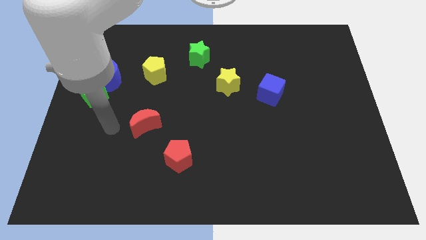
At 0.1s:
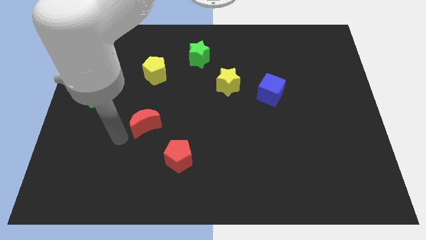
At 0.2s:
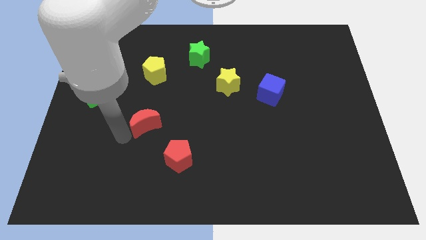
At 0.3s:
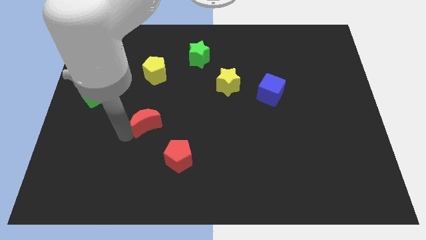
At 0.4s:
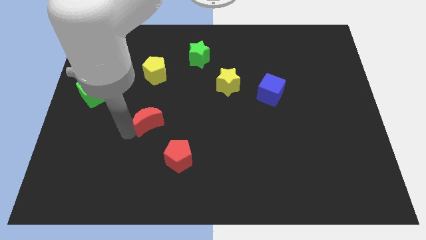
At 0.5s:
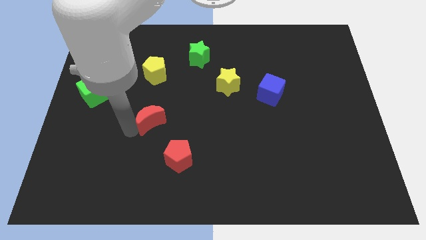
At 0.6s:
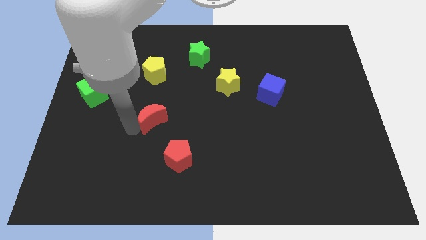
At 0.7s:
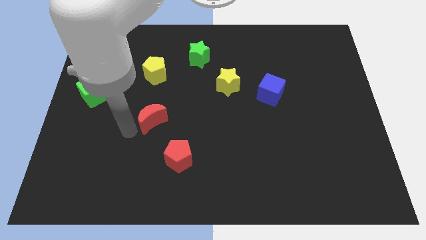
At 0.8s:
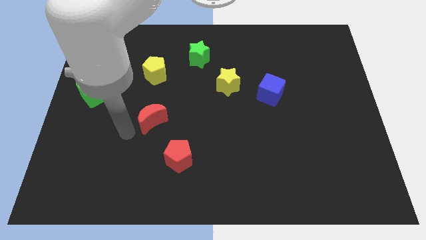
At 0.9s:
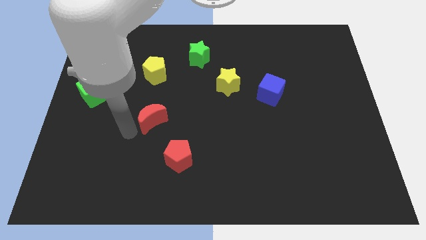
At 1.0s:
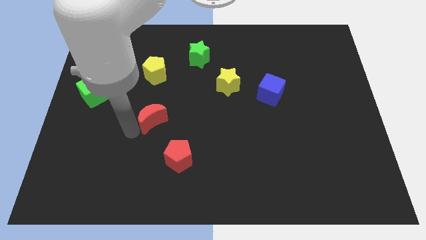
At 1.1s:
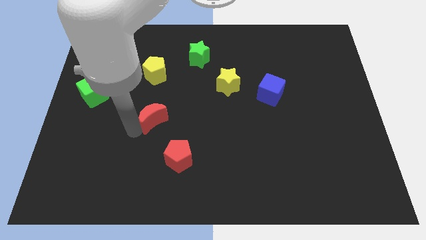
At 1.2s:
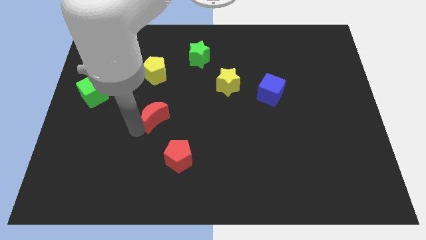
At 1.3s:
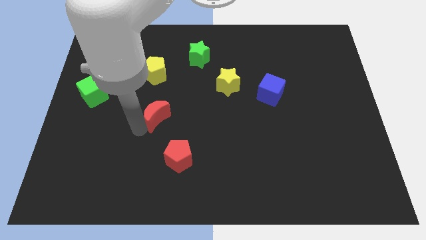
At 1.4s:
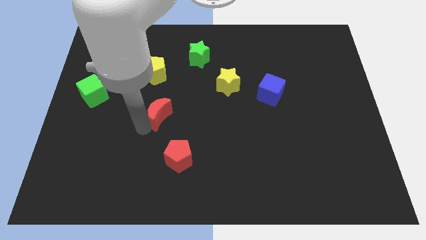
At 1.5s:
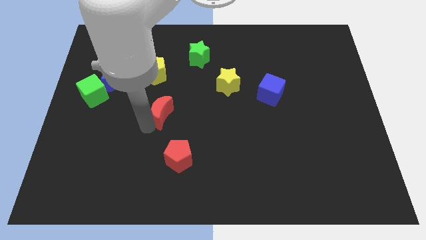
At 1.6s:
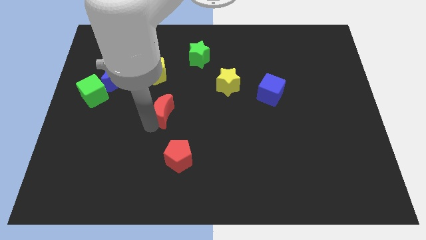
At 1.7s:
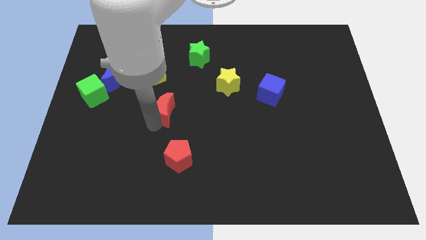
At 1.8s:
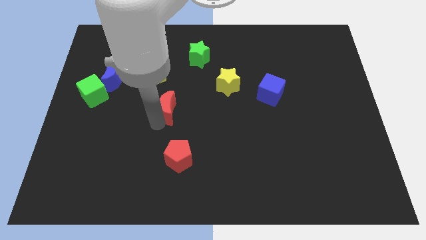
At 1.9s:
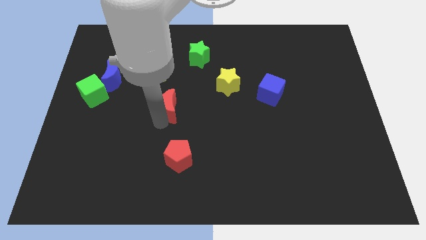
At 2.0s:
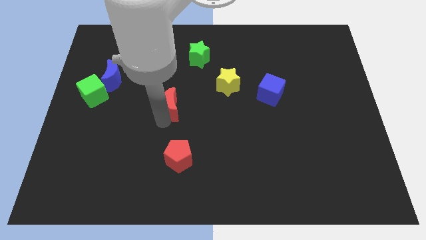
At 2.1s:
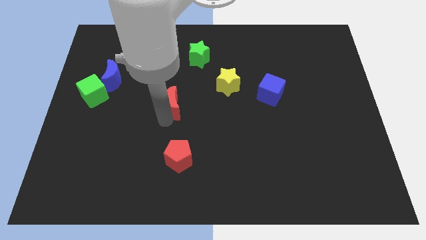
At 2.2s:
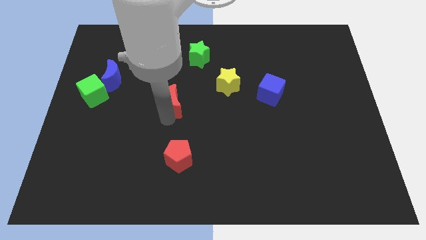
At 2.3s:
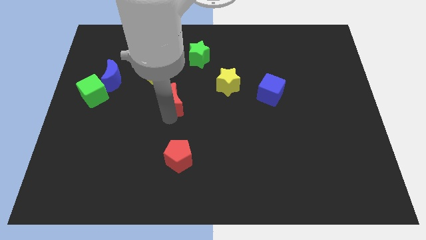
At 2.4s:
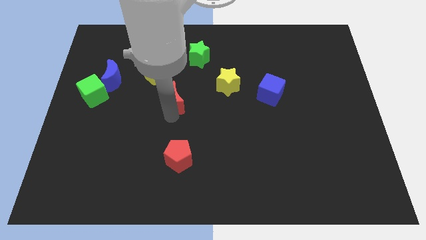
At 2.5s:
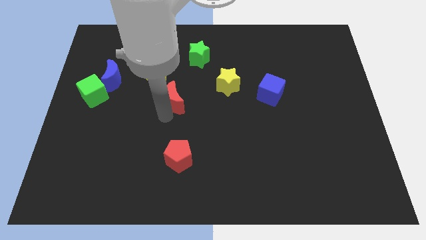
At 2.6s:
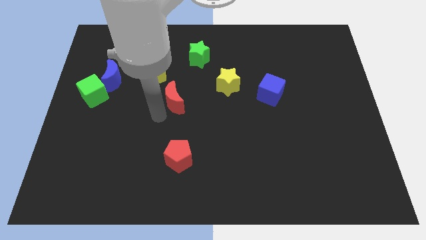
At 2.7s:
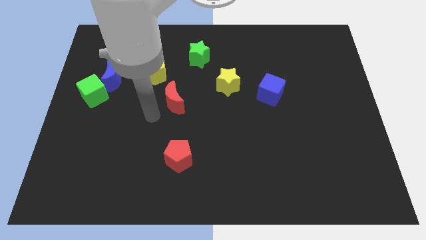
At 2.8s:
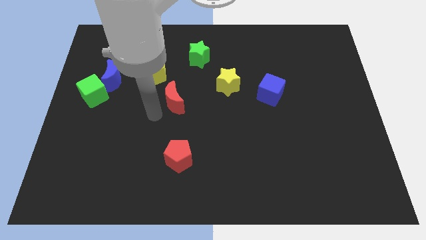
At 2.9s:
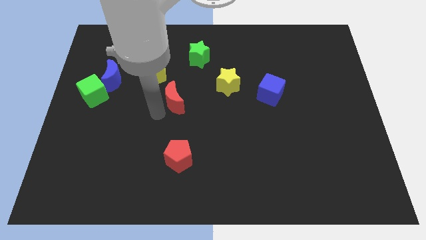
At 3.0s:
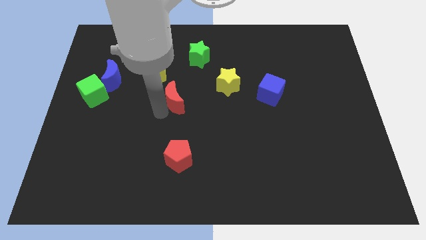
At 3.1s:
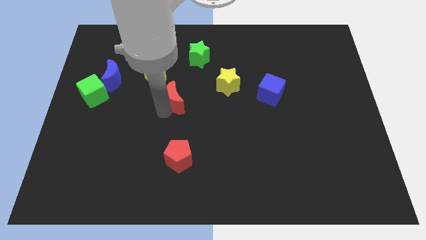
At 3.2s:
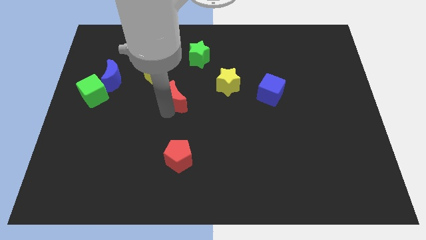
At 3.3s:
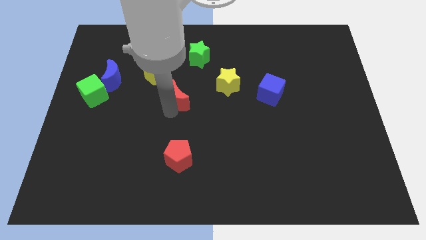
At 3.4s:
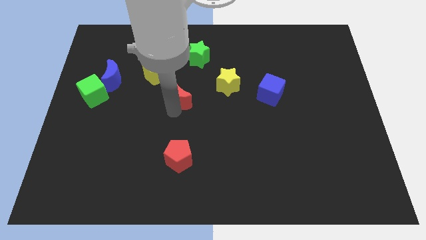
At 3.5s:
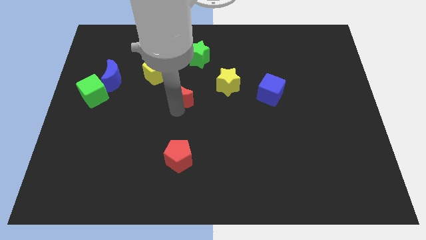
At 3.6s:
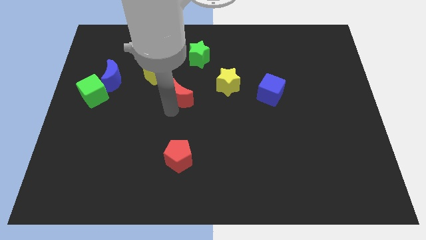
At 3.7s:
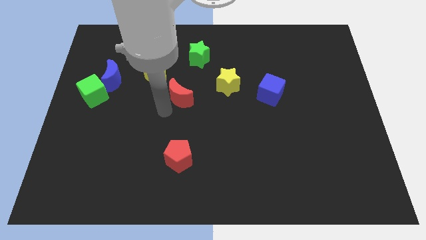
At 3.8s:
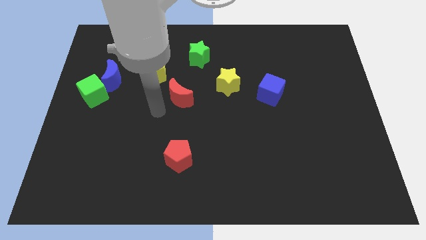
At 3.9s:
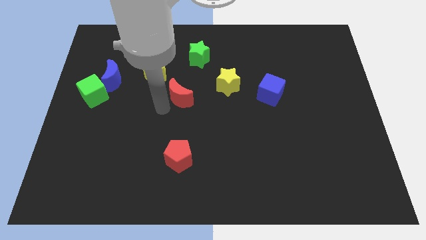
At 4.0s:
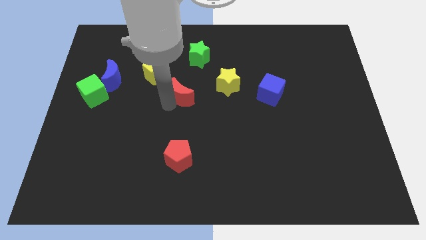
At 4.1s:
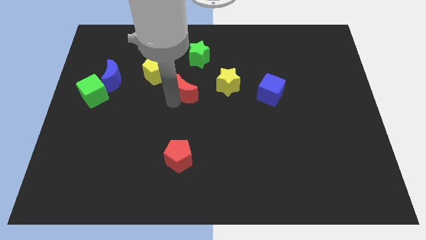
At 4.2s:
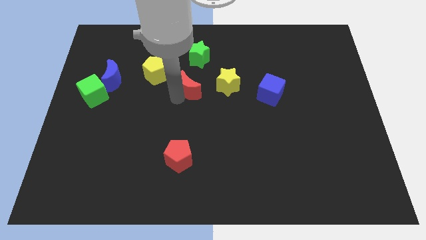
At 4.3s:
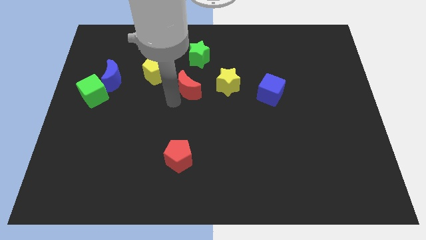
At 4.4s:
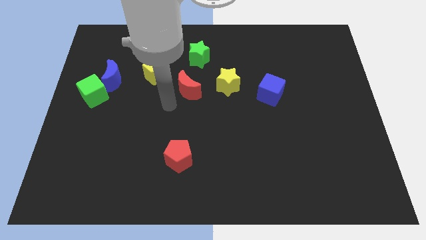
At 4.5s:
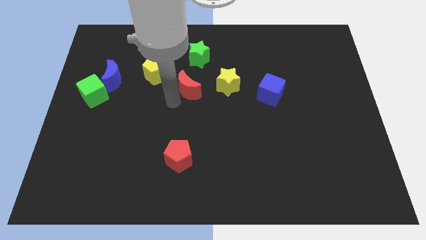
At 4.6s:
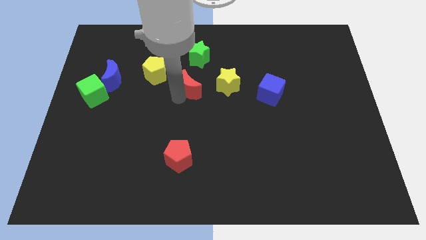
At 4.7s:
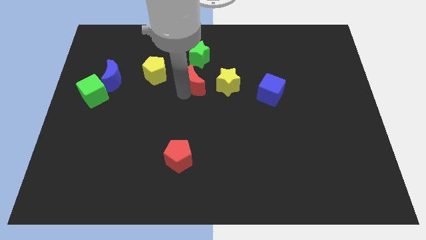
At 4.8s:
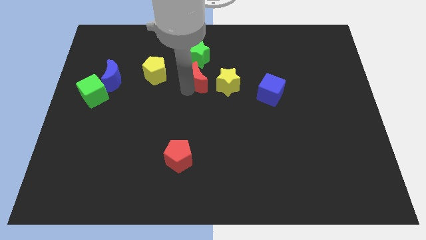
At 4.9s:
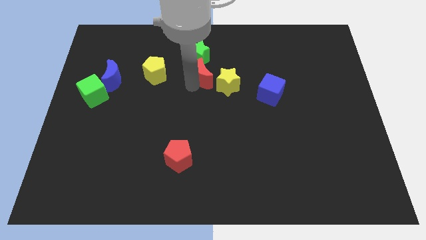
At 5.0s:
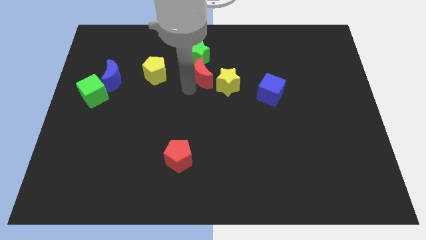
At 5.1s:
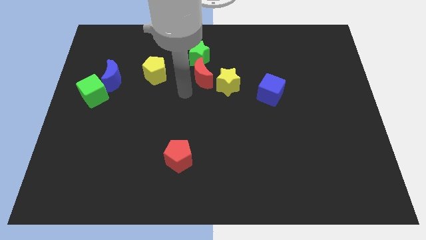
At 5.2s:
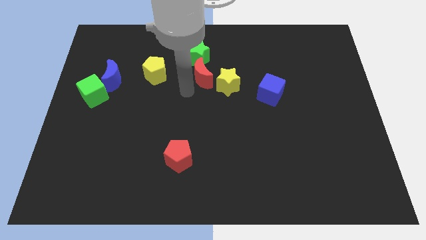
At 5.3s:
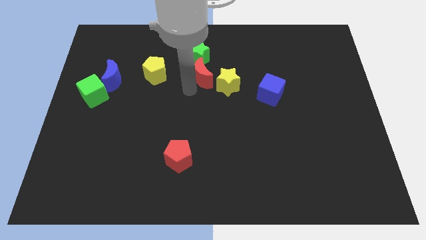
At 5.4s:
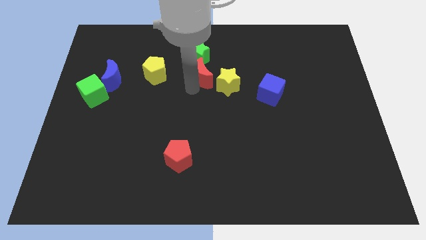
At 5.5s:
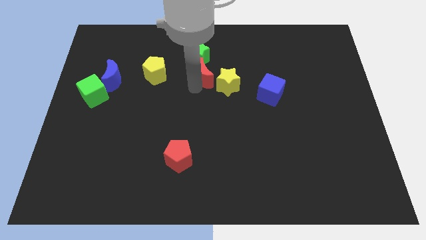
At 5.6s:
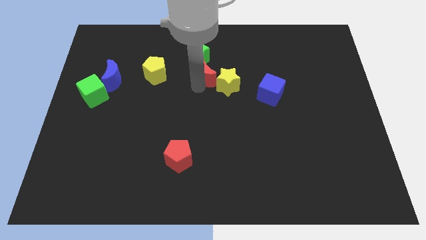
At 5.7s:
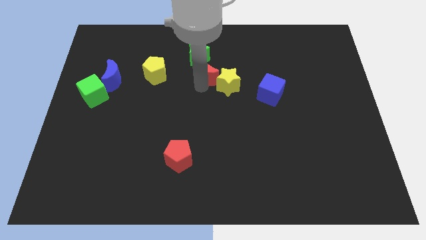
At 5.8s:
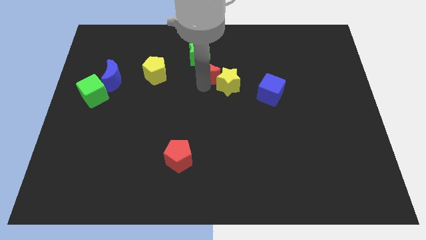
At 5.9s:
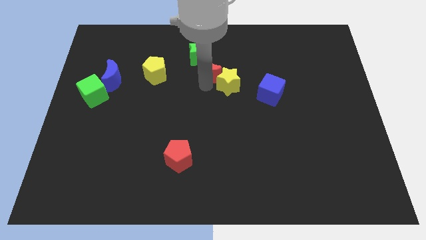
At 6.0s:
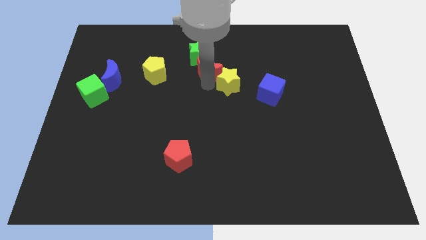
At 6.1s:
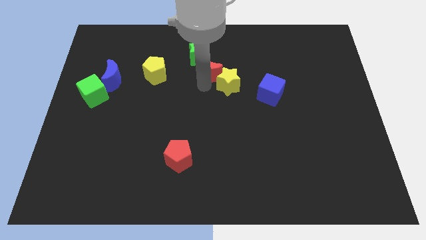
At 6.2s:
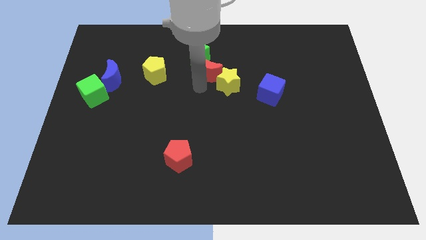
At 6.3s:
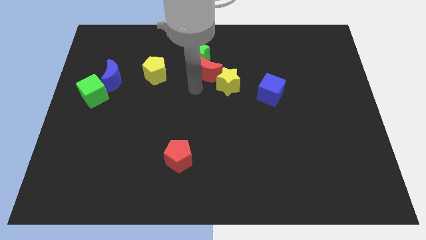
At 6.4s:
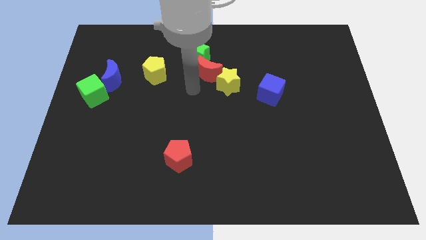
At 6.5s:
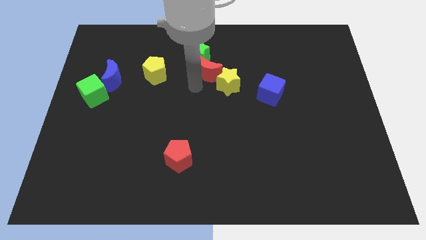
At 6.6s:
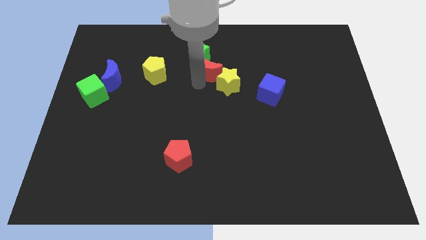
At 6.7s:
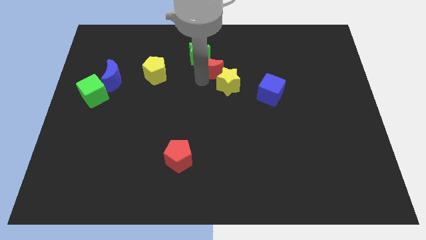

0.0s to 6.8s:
put the red moon above the yellow star

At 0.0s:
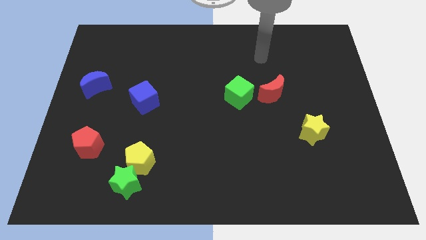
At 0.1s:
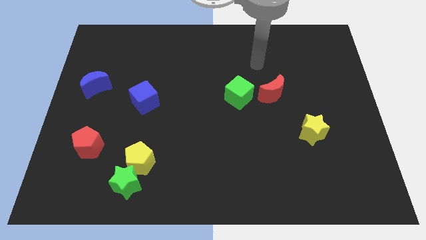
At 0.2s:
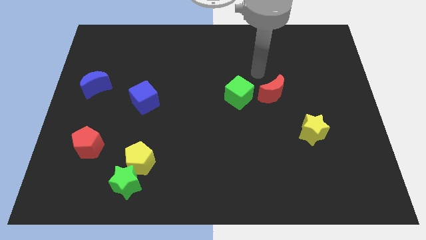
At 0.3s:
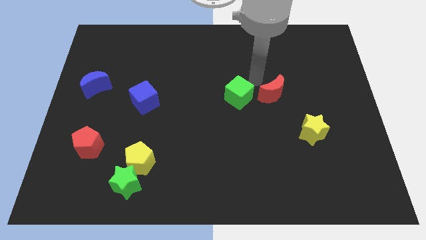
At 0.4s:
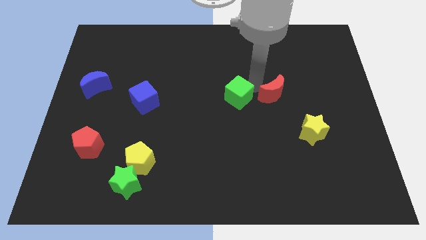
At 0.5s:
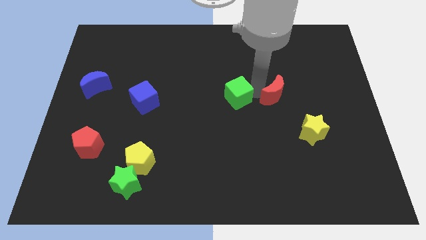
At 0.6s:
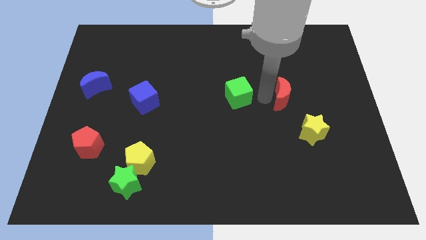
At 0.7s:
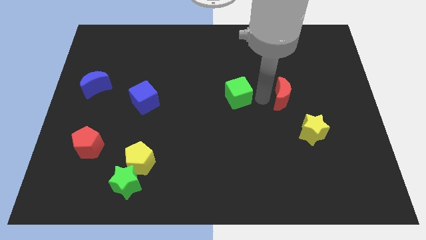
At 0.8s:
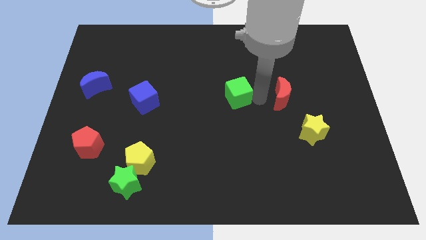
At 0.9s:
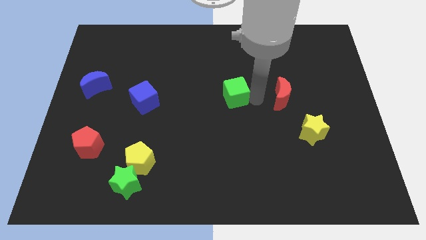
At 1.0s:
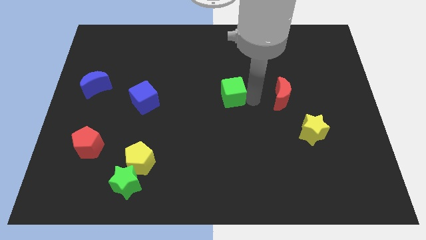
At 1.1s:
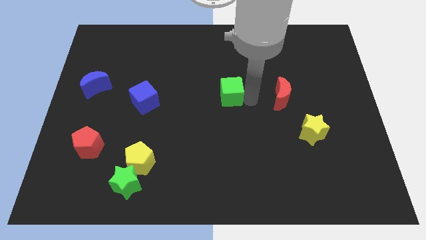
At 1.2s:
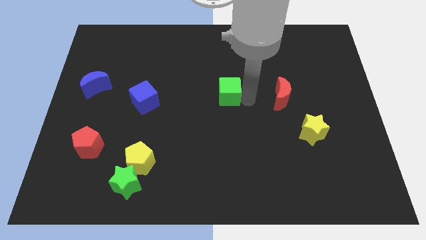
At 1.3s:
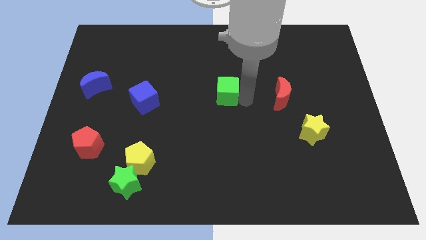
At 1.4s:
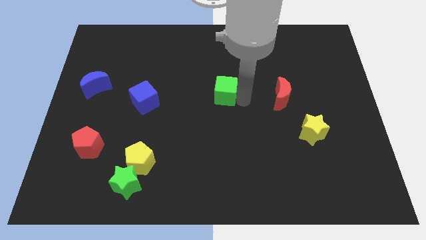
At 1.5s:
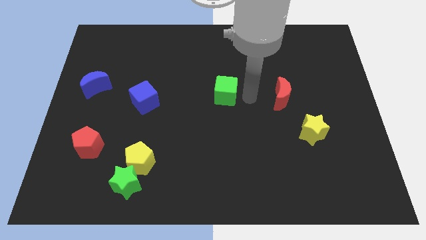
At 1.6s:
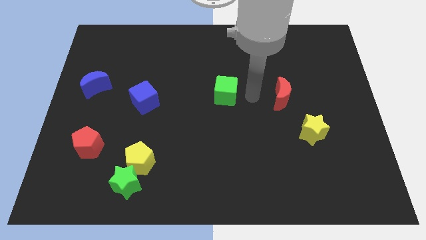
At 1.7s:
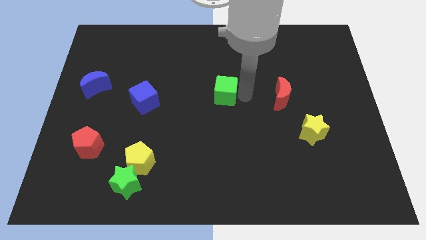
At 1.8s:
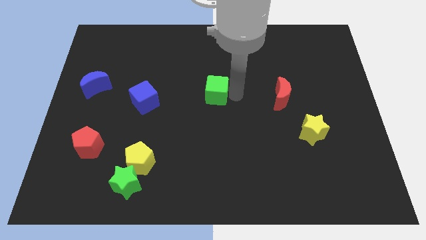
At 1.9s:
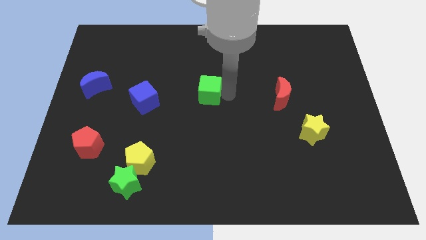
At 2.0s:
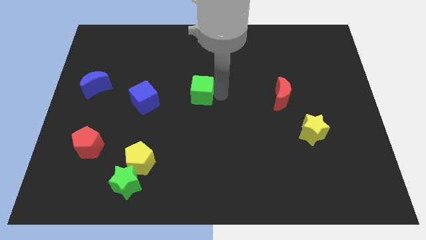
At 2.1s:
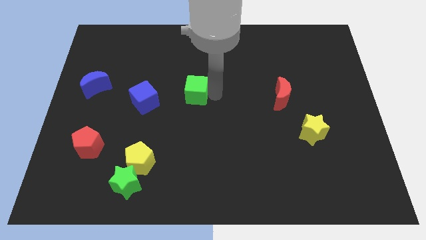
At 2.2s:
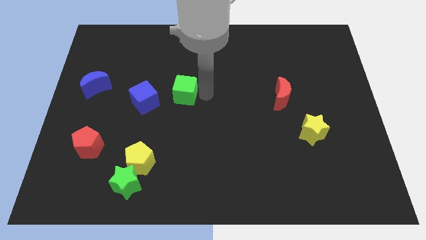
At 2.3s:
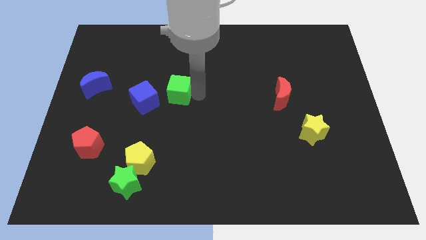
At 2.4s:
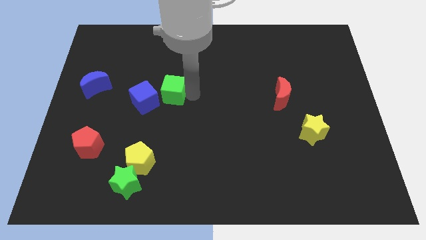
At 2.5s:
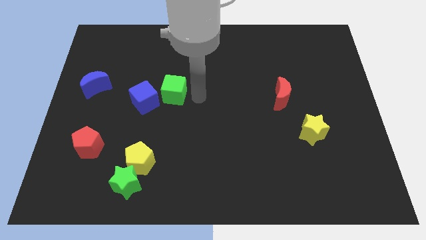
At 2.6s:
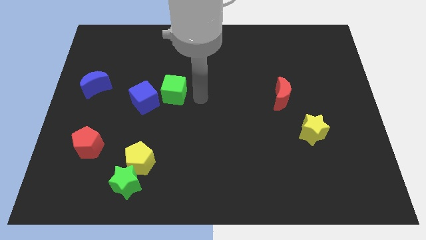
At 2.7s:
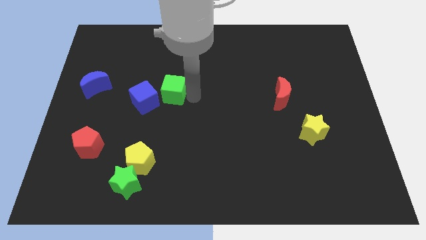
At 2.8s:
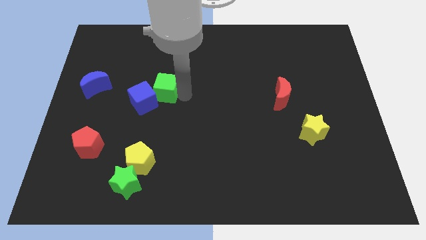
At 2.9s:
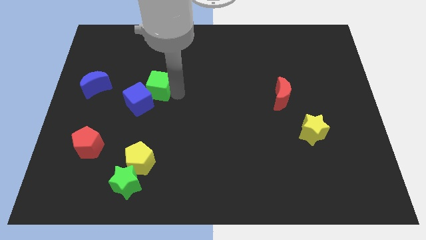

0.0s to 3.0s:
put the green cube just right of the blue moon
